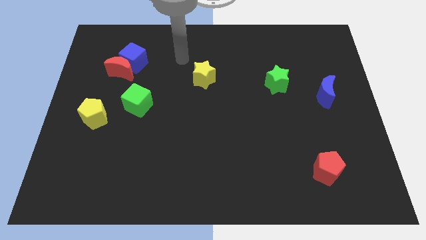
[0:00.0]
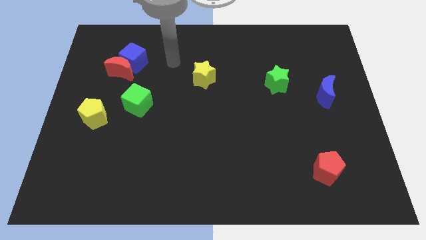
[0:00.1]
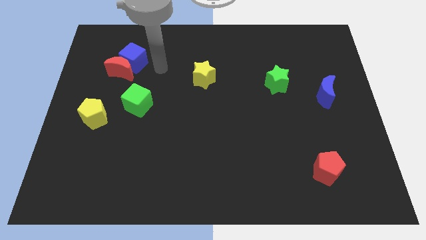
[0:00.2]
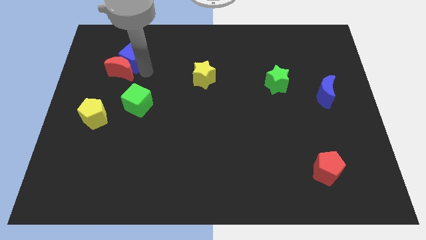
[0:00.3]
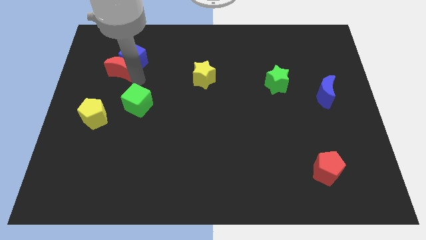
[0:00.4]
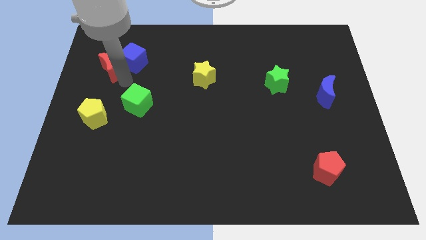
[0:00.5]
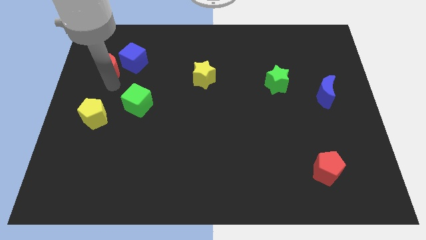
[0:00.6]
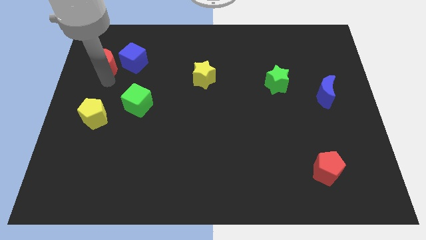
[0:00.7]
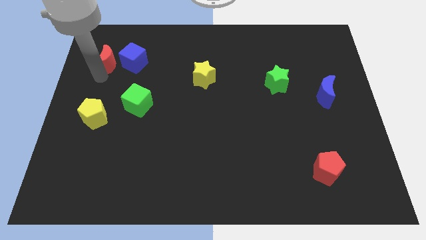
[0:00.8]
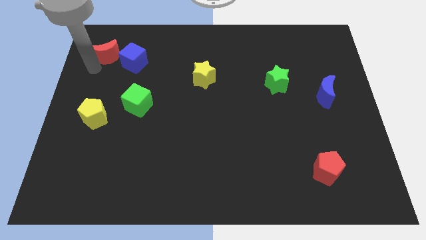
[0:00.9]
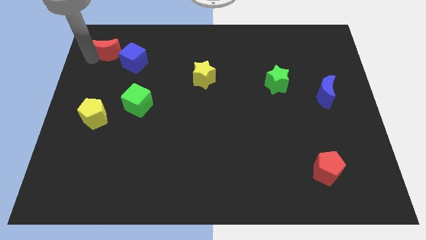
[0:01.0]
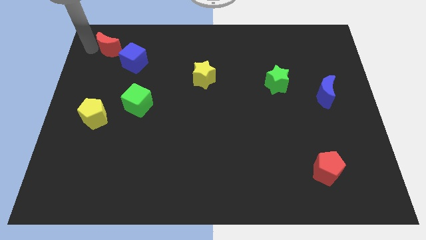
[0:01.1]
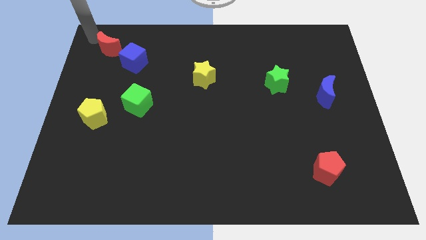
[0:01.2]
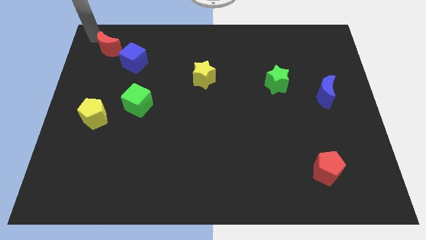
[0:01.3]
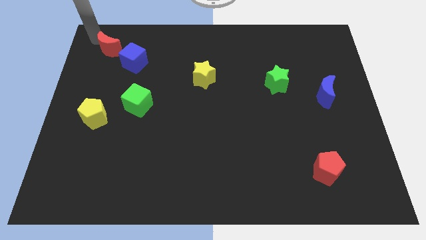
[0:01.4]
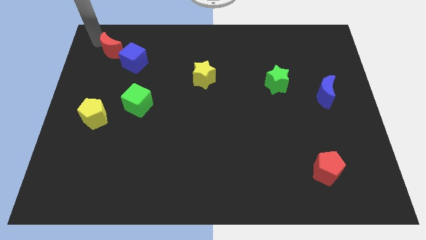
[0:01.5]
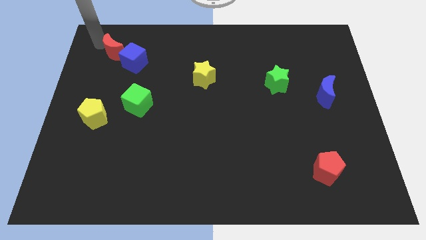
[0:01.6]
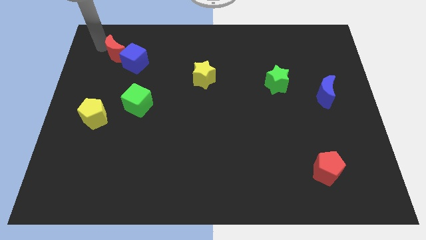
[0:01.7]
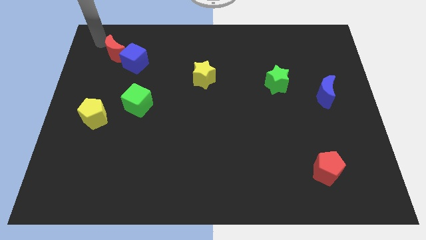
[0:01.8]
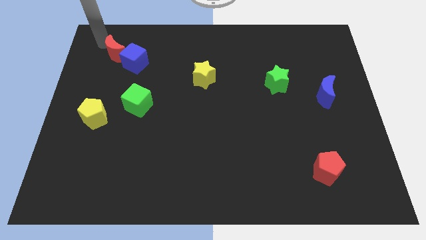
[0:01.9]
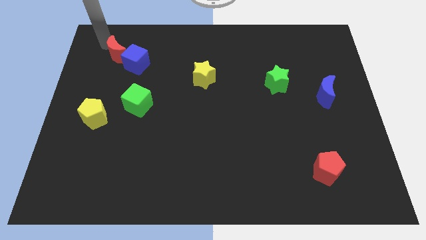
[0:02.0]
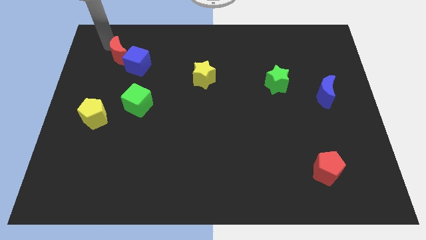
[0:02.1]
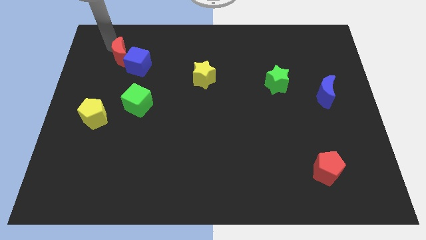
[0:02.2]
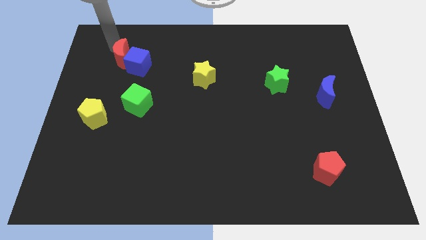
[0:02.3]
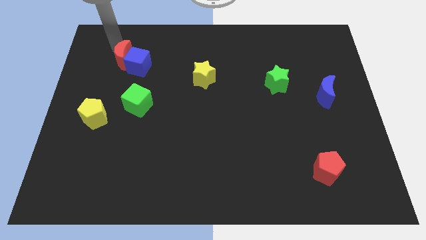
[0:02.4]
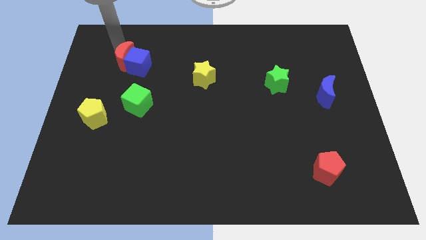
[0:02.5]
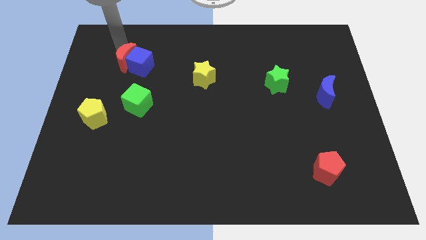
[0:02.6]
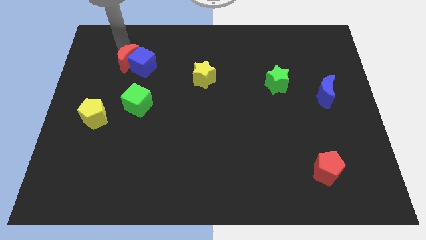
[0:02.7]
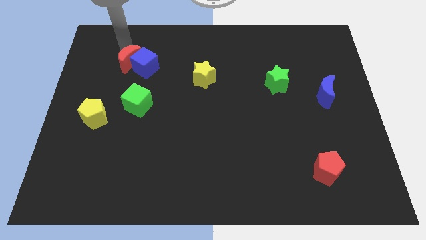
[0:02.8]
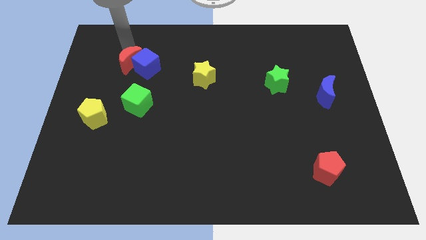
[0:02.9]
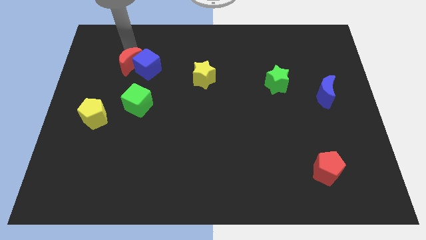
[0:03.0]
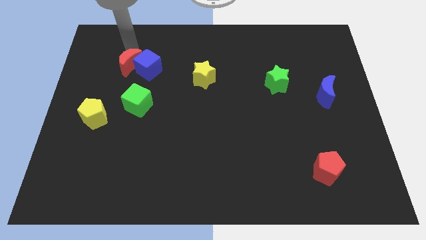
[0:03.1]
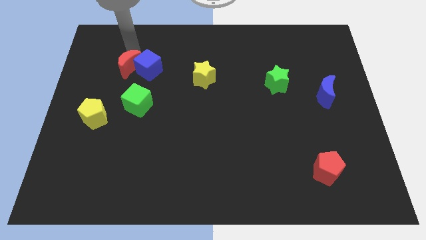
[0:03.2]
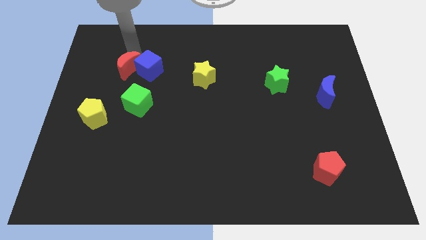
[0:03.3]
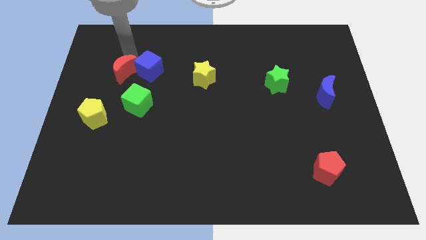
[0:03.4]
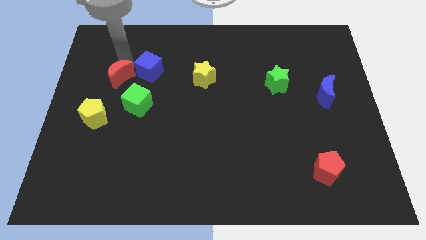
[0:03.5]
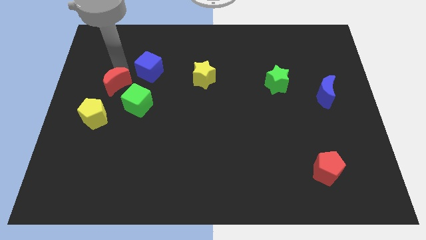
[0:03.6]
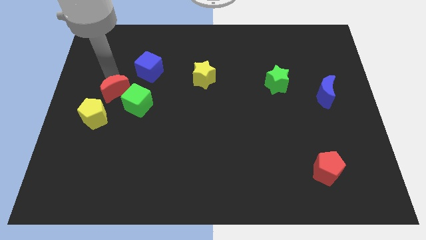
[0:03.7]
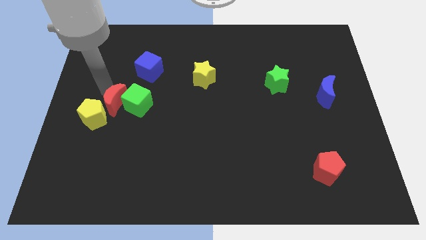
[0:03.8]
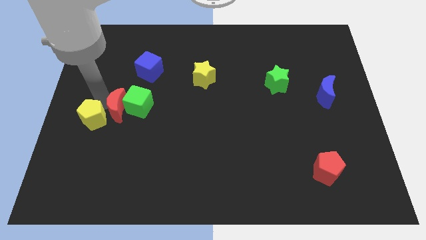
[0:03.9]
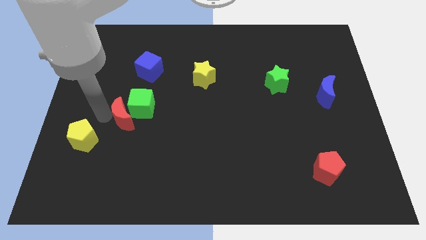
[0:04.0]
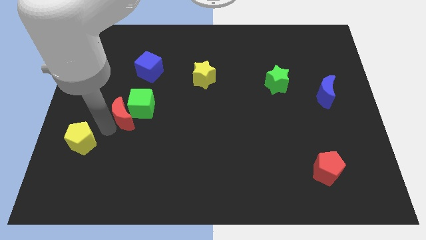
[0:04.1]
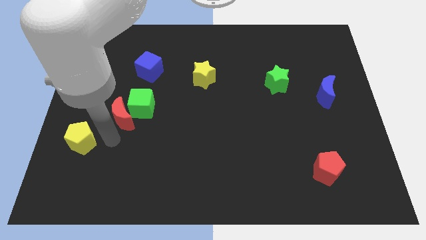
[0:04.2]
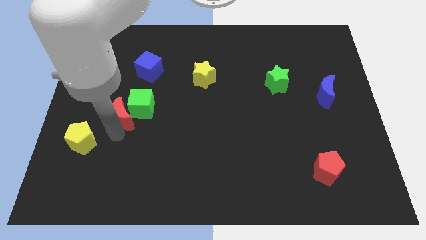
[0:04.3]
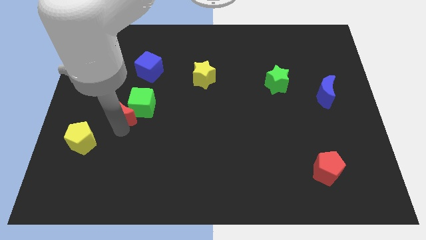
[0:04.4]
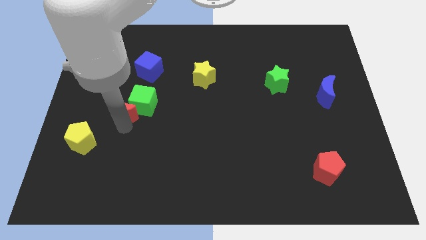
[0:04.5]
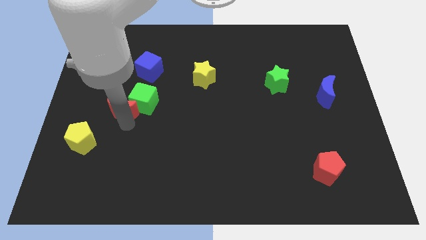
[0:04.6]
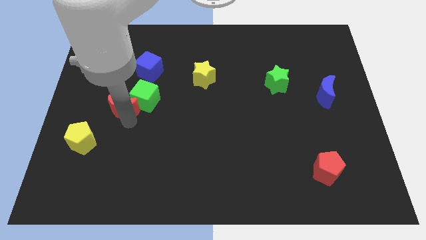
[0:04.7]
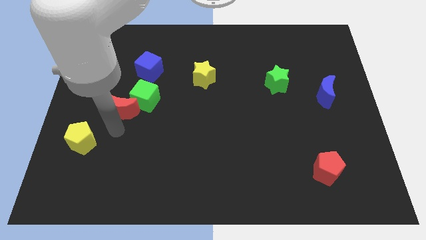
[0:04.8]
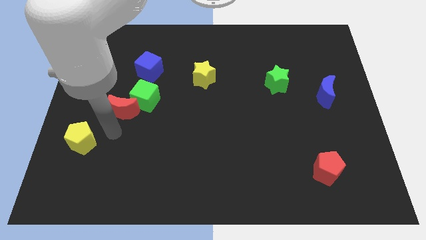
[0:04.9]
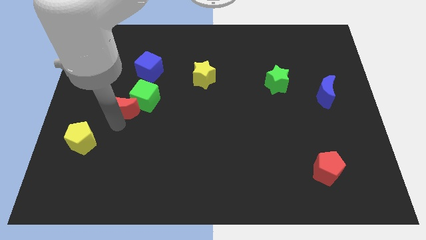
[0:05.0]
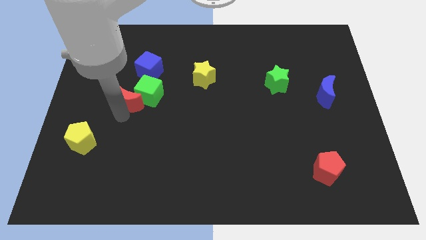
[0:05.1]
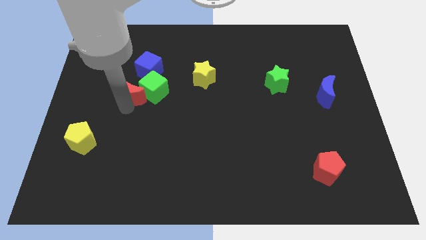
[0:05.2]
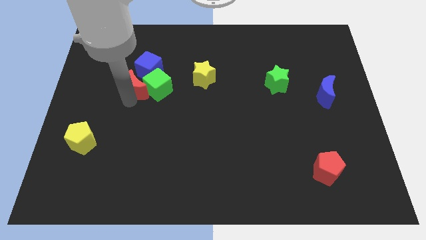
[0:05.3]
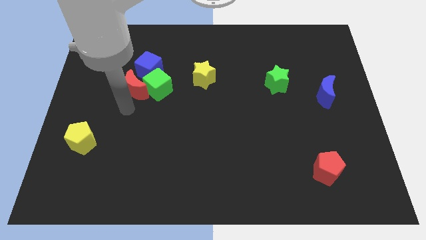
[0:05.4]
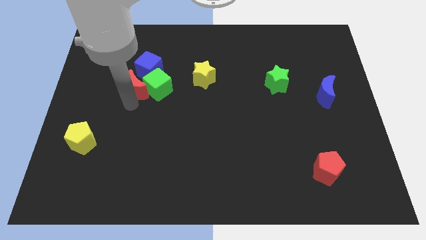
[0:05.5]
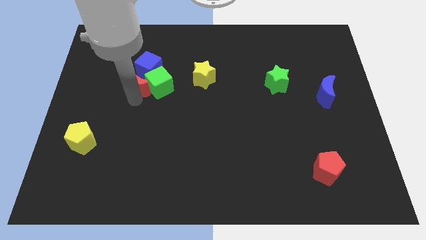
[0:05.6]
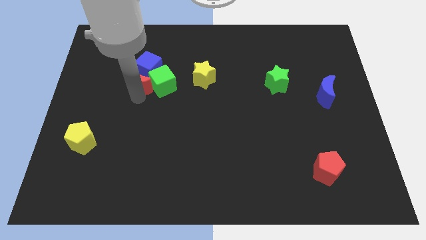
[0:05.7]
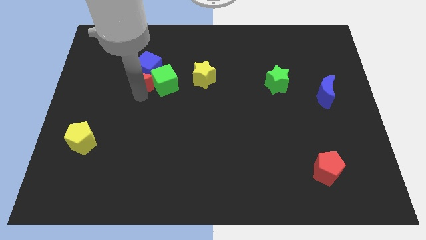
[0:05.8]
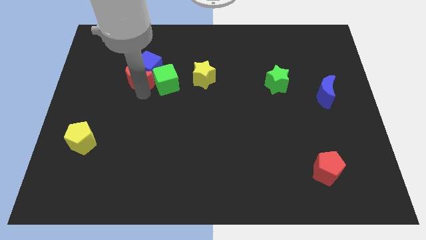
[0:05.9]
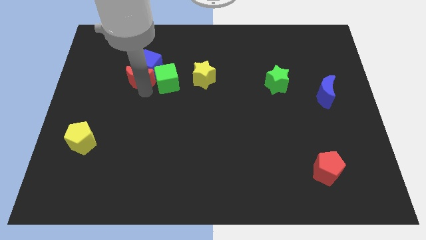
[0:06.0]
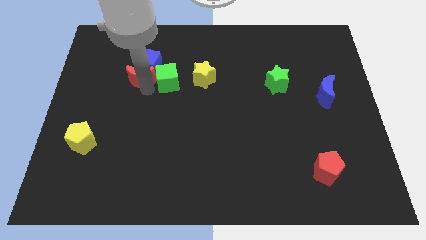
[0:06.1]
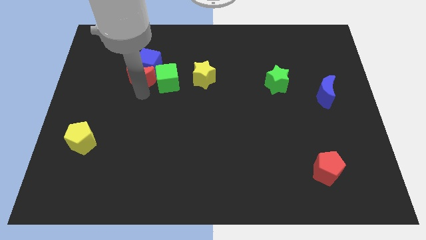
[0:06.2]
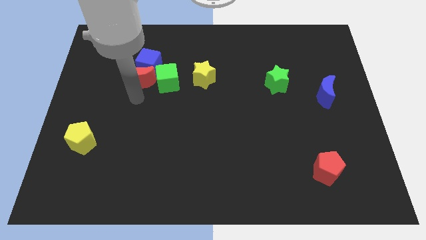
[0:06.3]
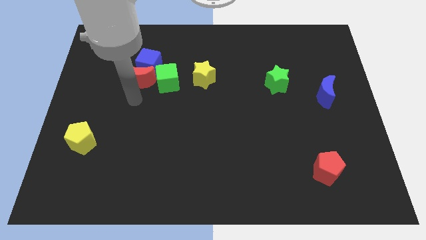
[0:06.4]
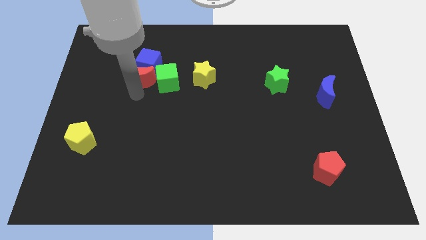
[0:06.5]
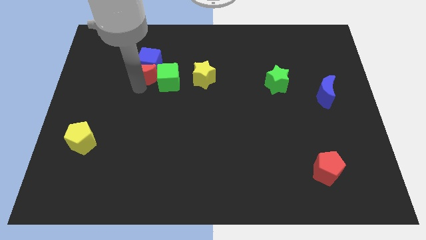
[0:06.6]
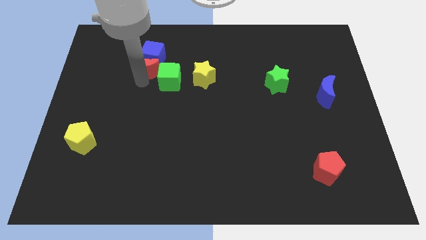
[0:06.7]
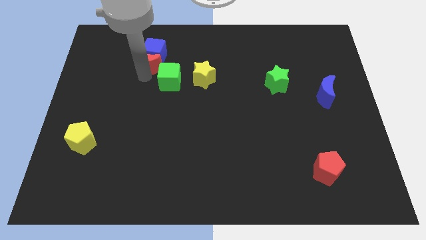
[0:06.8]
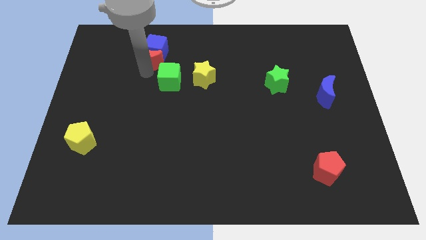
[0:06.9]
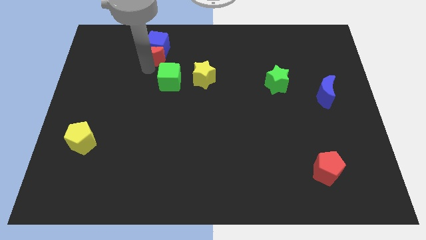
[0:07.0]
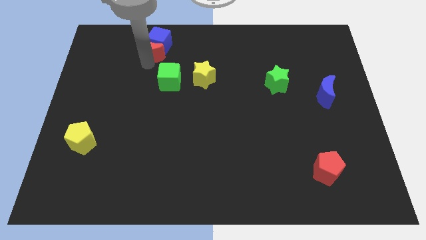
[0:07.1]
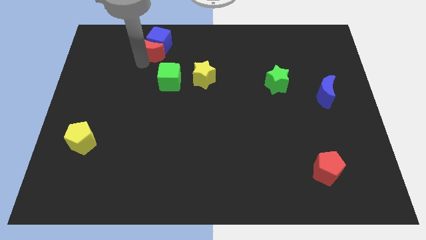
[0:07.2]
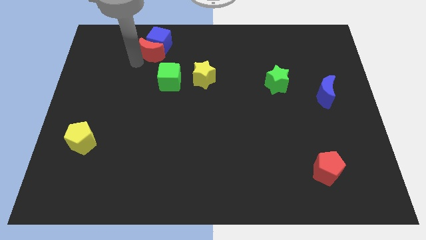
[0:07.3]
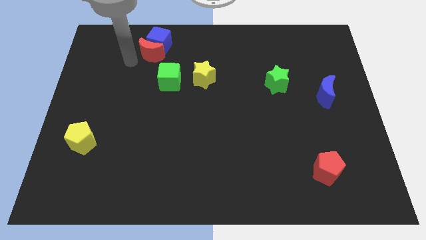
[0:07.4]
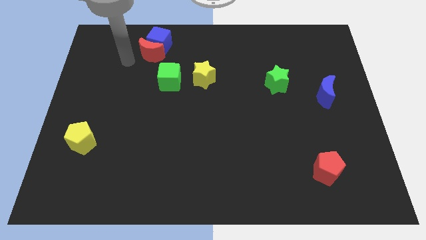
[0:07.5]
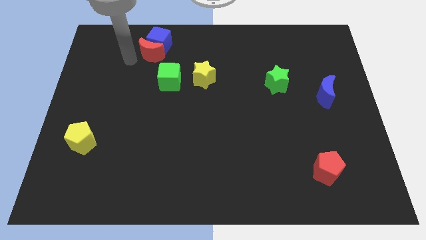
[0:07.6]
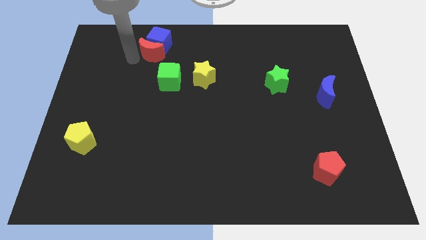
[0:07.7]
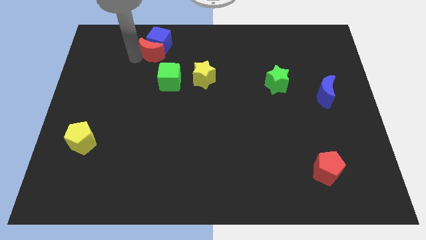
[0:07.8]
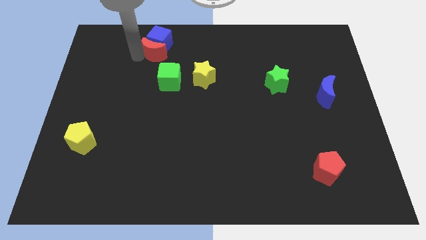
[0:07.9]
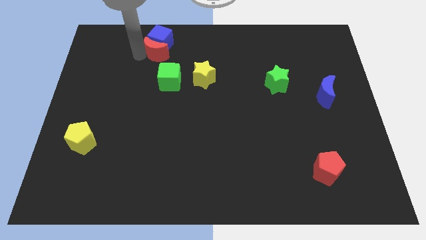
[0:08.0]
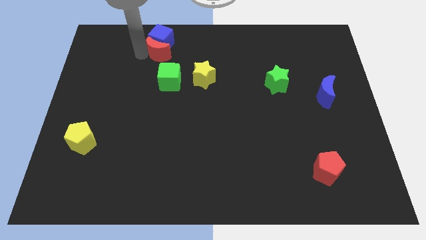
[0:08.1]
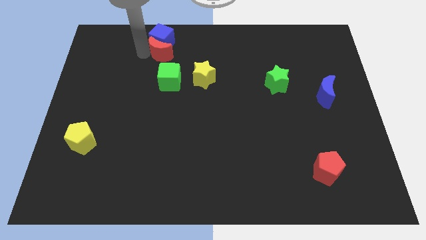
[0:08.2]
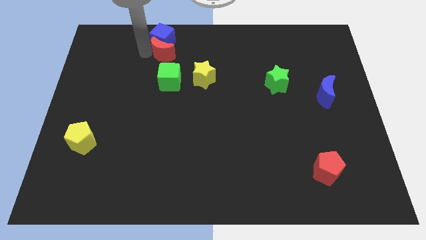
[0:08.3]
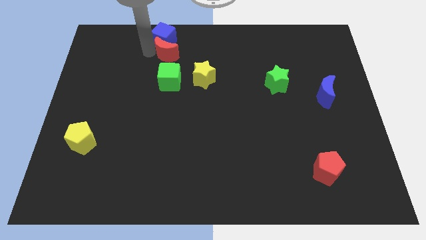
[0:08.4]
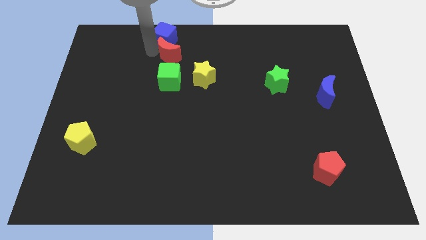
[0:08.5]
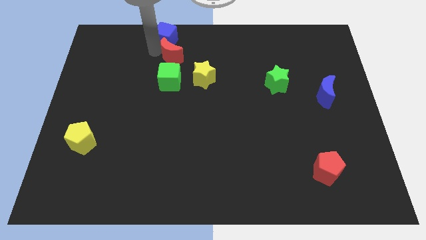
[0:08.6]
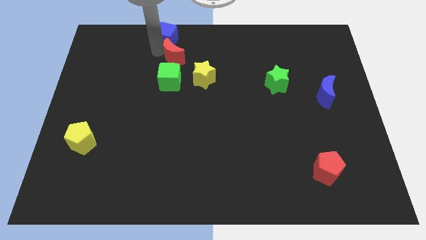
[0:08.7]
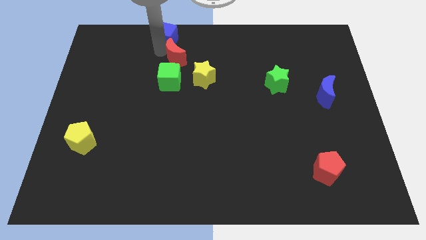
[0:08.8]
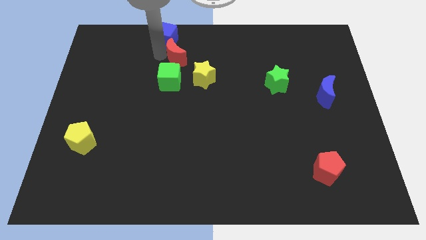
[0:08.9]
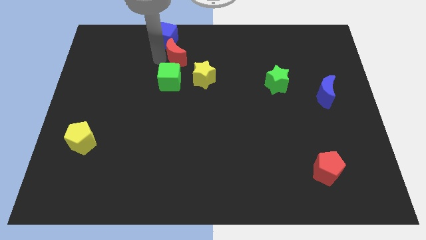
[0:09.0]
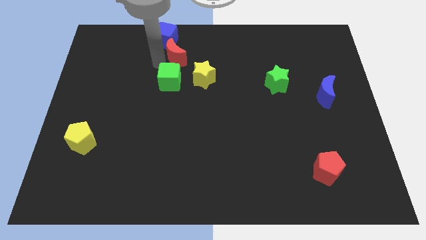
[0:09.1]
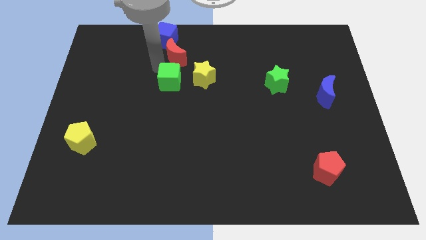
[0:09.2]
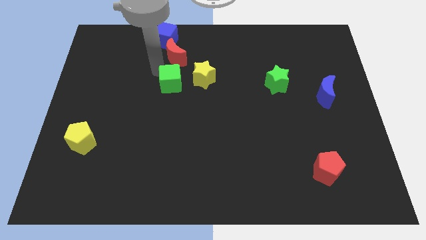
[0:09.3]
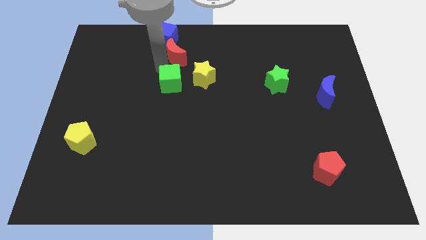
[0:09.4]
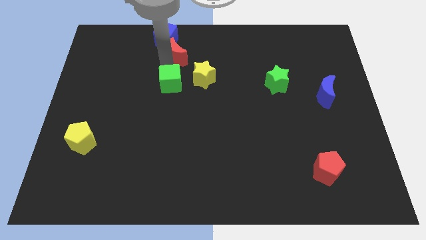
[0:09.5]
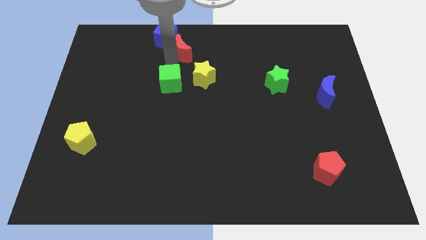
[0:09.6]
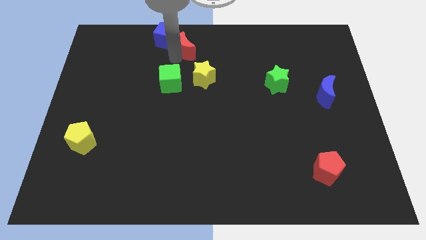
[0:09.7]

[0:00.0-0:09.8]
slide the red moon to the top side
